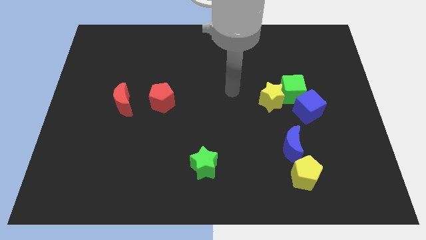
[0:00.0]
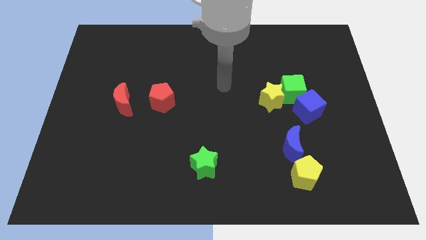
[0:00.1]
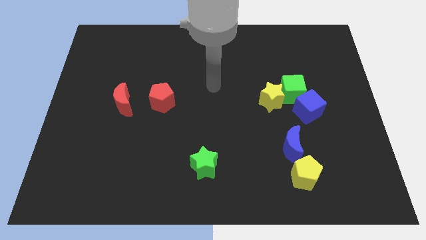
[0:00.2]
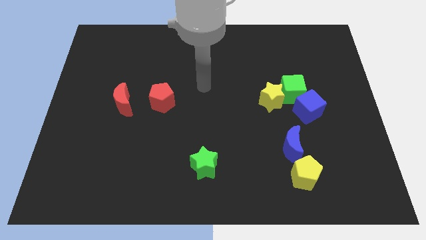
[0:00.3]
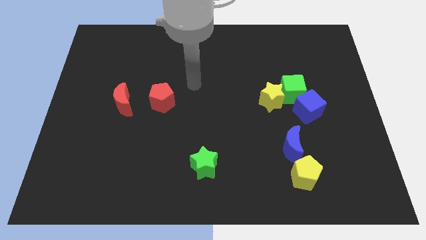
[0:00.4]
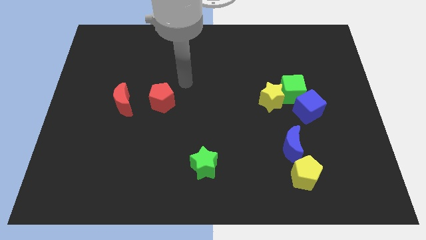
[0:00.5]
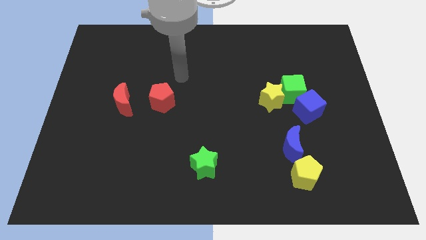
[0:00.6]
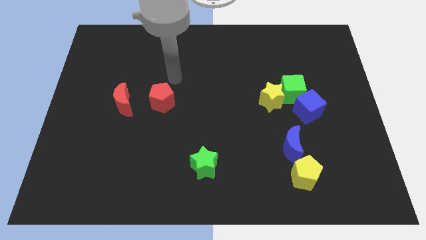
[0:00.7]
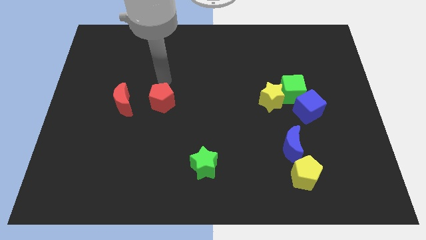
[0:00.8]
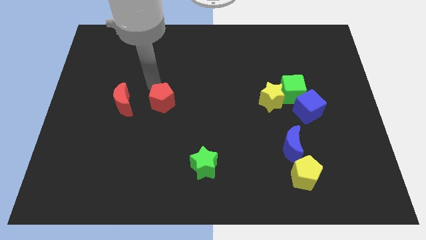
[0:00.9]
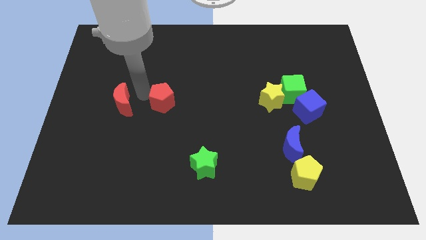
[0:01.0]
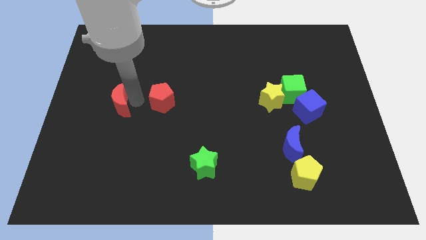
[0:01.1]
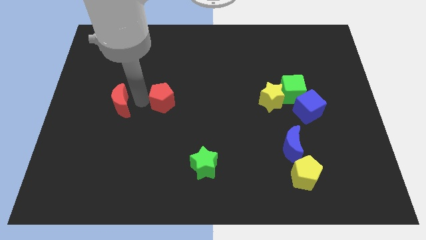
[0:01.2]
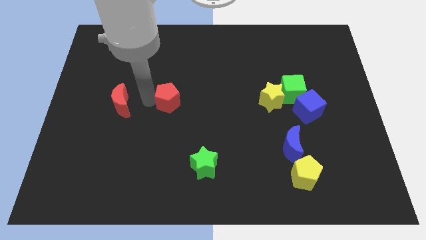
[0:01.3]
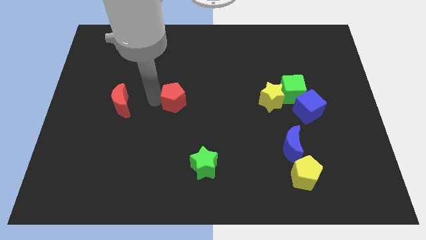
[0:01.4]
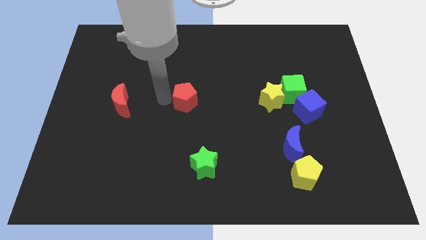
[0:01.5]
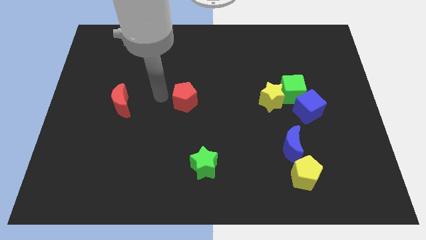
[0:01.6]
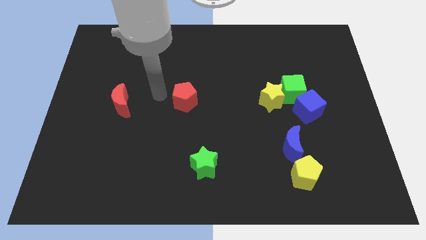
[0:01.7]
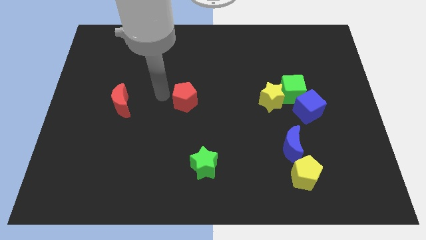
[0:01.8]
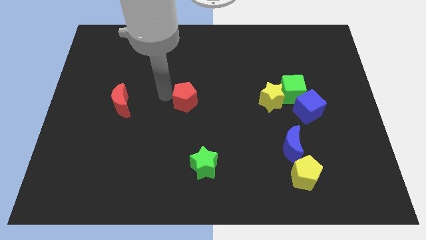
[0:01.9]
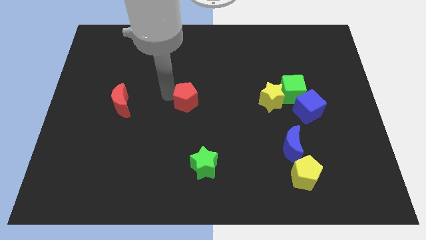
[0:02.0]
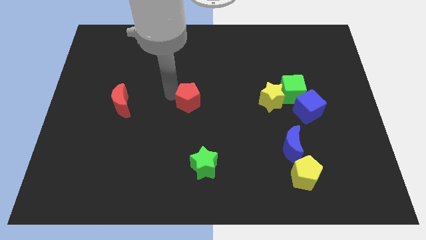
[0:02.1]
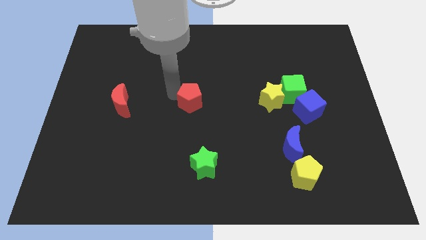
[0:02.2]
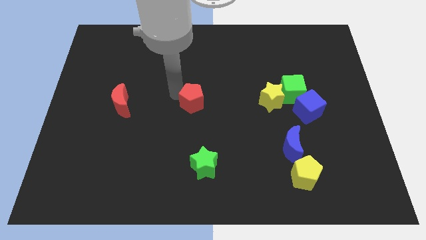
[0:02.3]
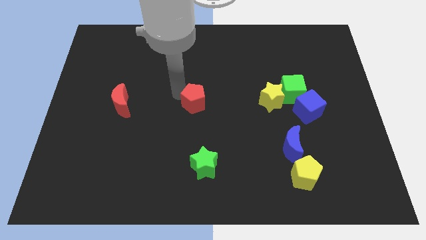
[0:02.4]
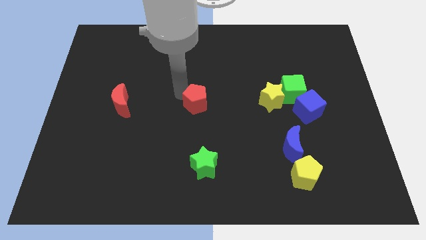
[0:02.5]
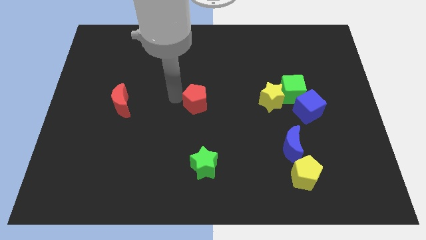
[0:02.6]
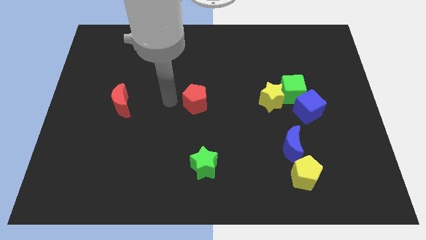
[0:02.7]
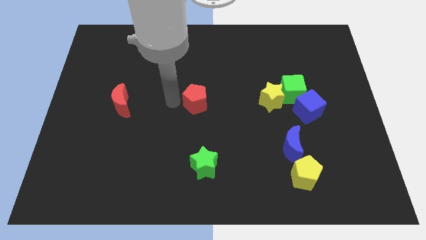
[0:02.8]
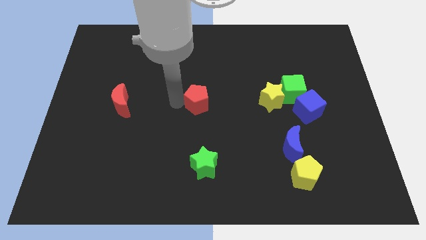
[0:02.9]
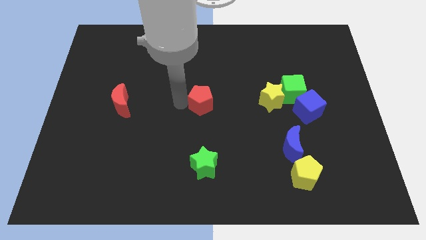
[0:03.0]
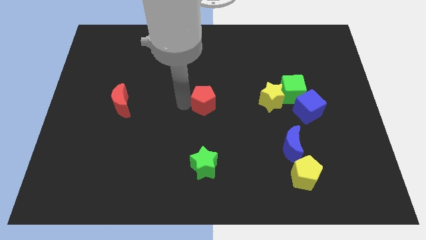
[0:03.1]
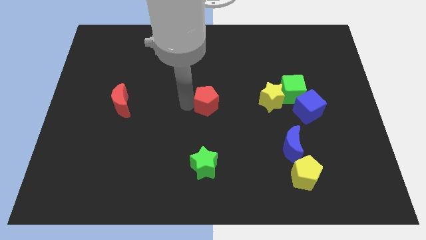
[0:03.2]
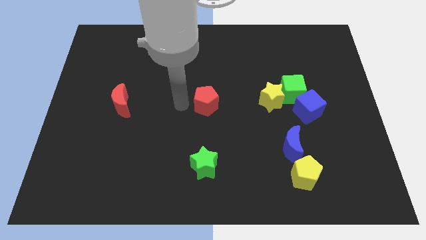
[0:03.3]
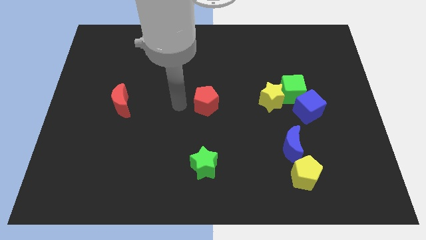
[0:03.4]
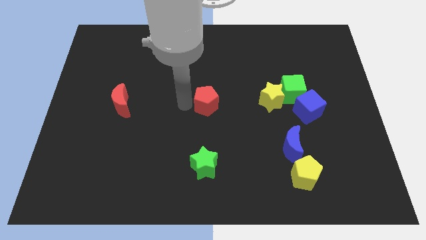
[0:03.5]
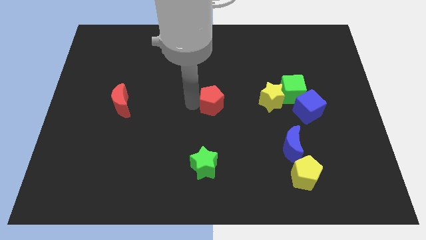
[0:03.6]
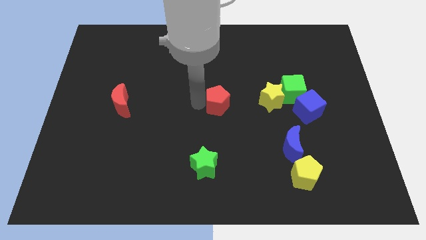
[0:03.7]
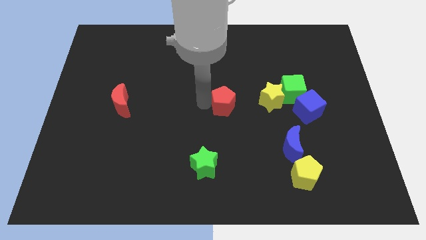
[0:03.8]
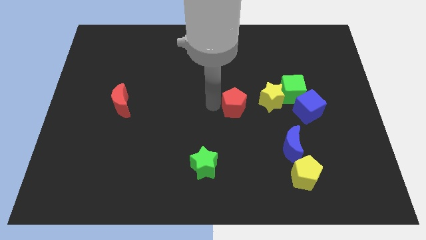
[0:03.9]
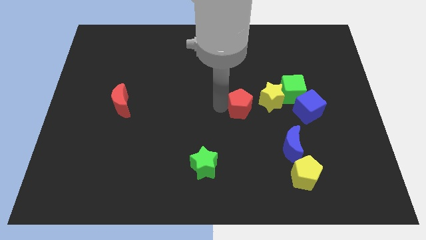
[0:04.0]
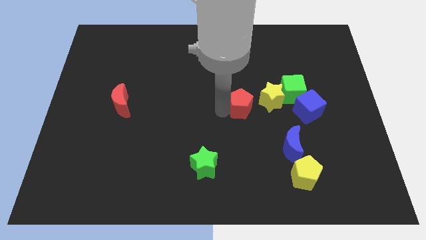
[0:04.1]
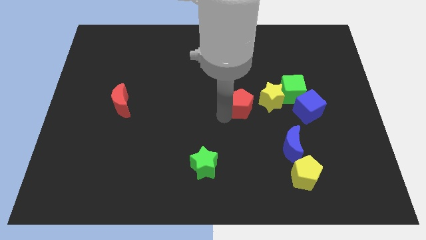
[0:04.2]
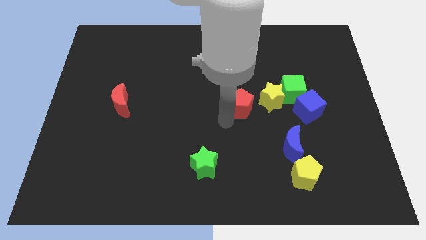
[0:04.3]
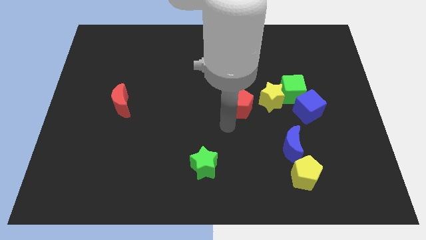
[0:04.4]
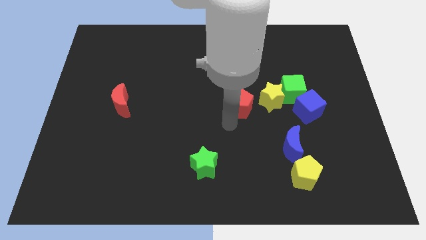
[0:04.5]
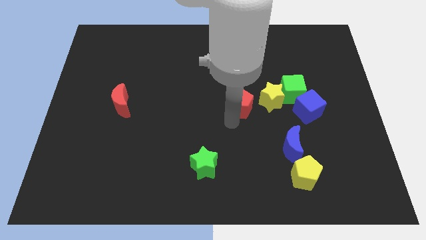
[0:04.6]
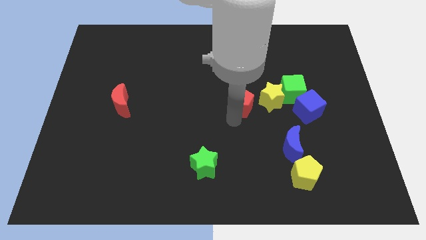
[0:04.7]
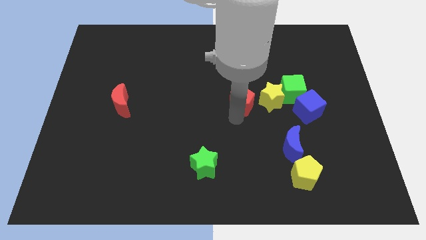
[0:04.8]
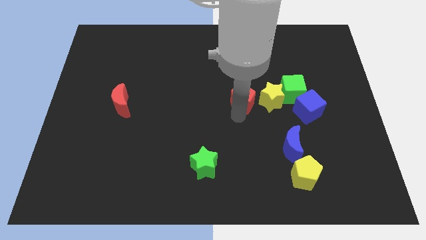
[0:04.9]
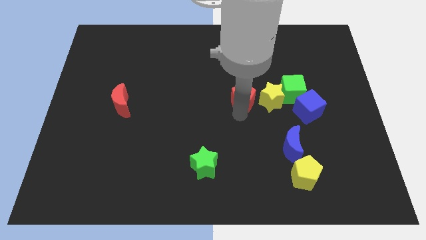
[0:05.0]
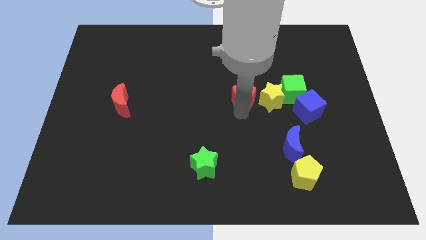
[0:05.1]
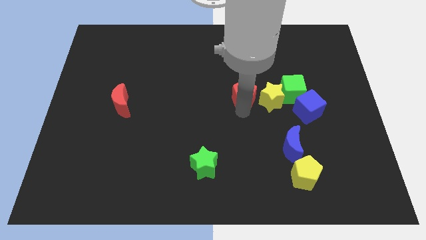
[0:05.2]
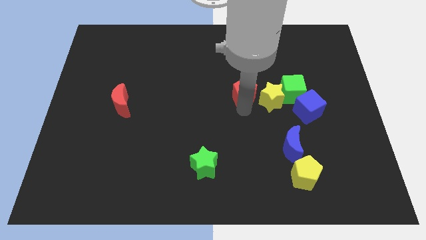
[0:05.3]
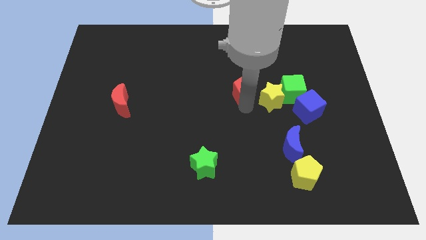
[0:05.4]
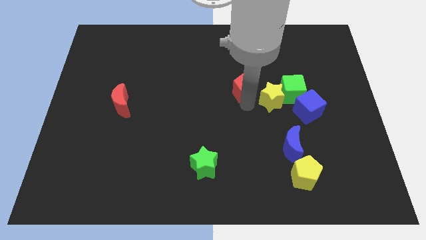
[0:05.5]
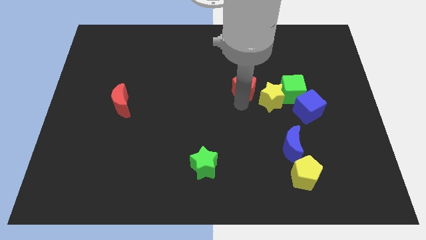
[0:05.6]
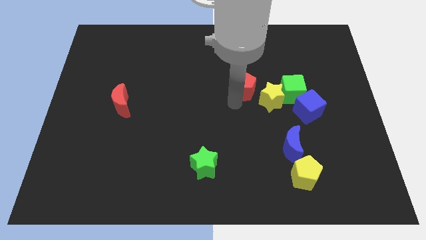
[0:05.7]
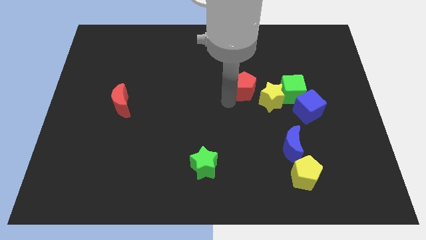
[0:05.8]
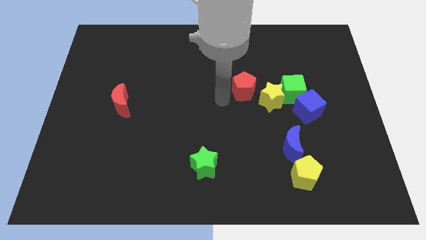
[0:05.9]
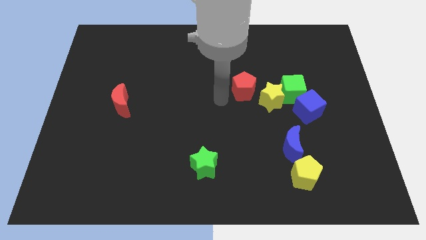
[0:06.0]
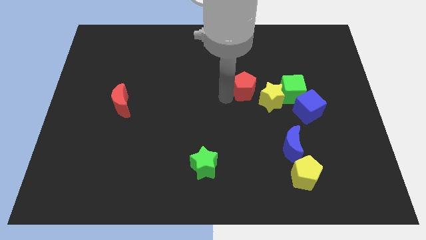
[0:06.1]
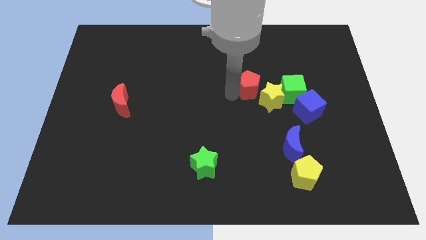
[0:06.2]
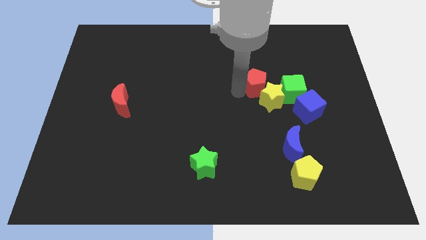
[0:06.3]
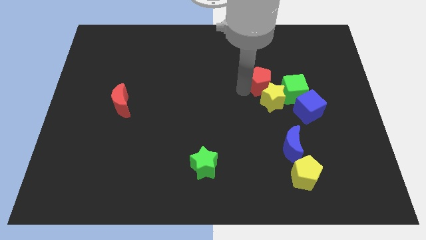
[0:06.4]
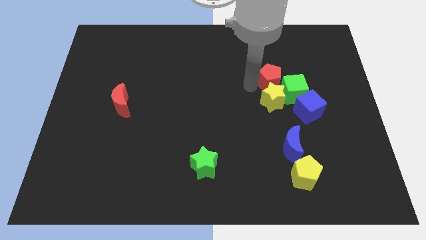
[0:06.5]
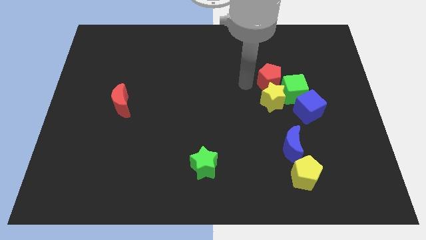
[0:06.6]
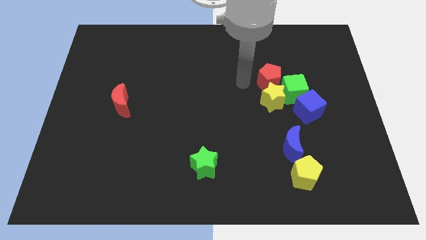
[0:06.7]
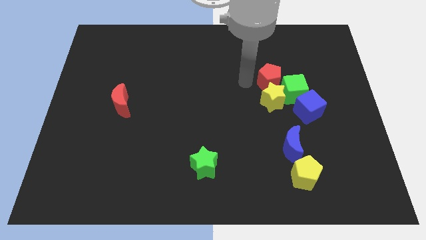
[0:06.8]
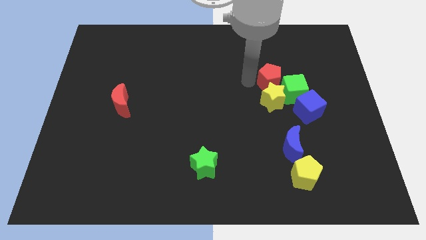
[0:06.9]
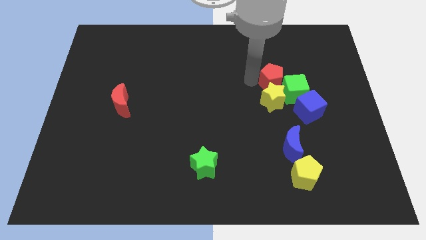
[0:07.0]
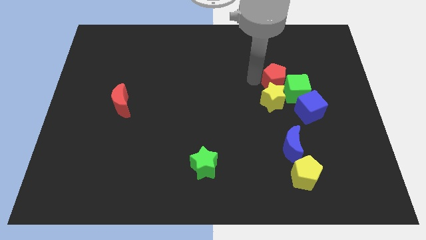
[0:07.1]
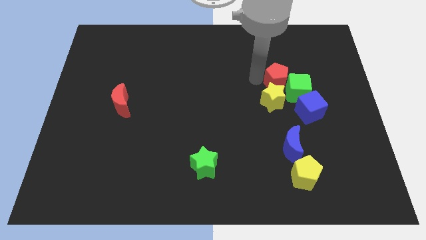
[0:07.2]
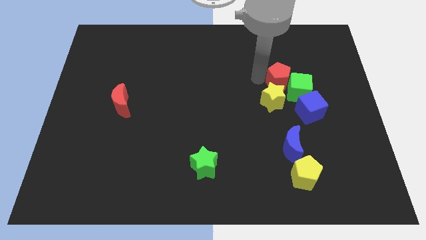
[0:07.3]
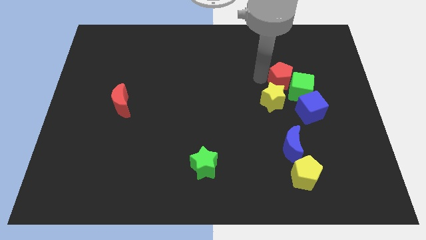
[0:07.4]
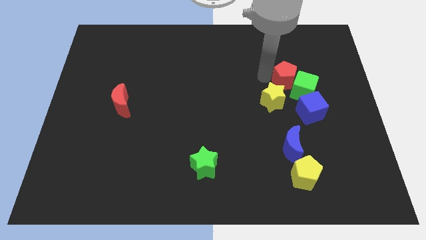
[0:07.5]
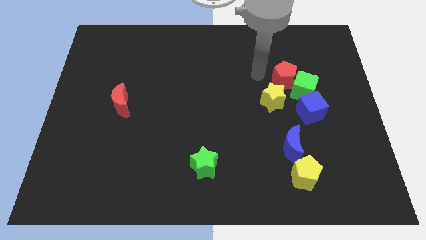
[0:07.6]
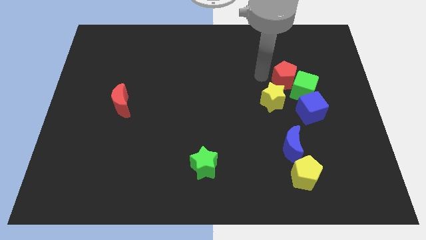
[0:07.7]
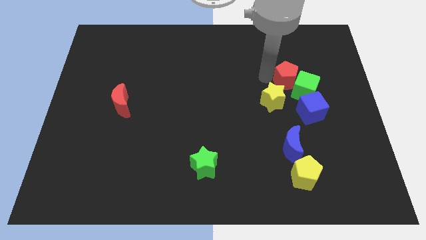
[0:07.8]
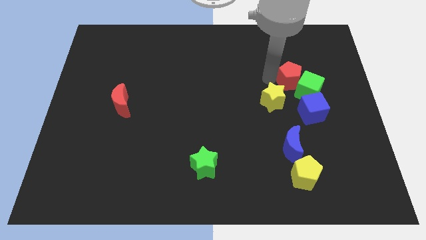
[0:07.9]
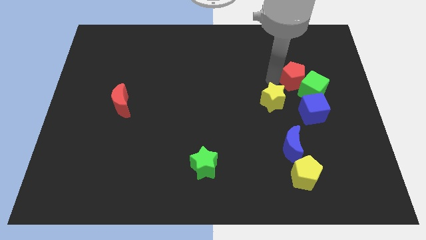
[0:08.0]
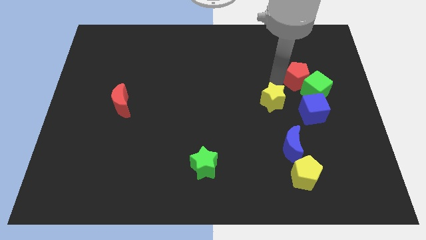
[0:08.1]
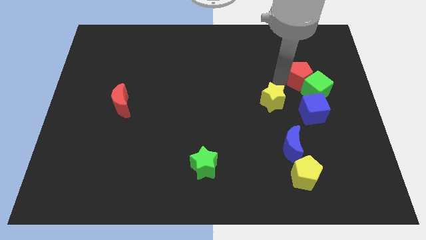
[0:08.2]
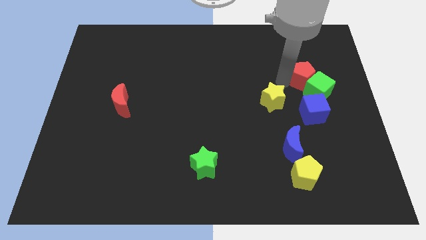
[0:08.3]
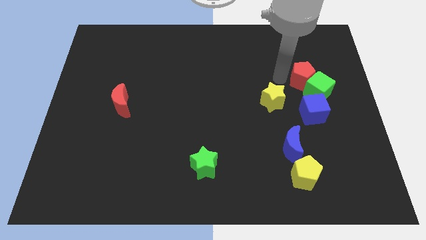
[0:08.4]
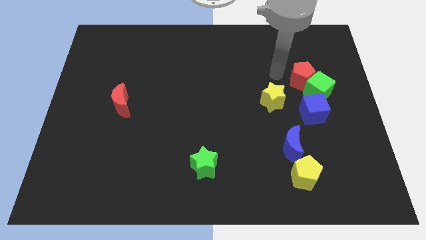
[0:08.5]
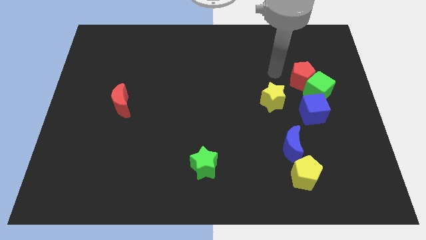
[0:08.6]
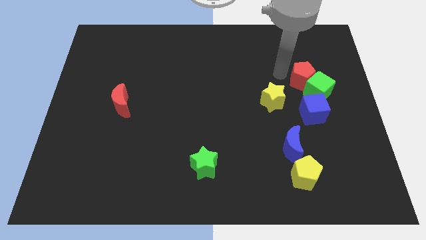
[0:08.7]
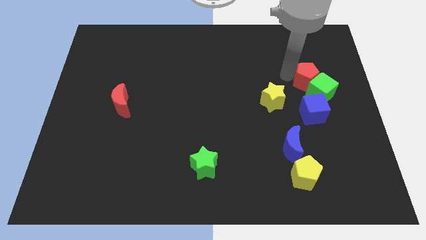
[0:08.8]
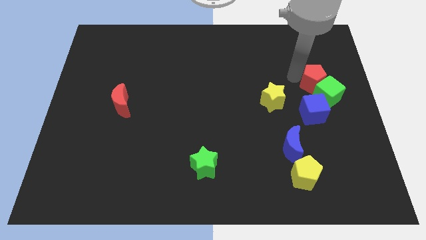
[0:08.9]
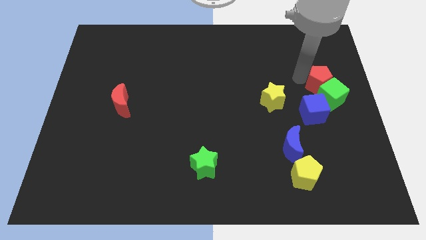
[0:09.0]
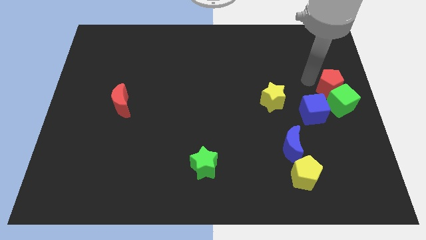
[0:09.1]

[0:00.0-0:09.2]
push the red pentagon to the right side
